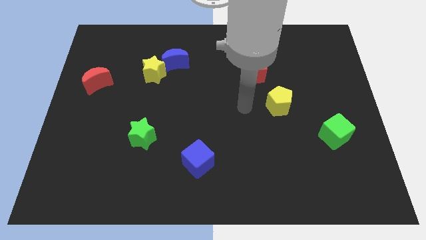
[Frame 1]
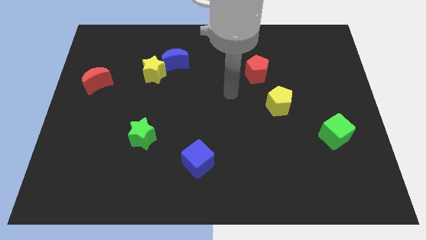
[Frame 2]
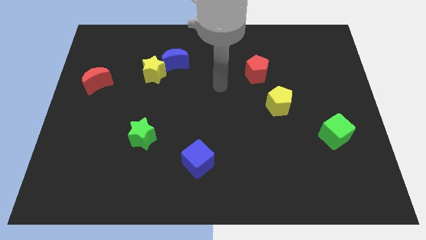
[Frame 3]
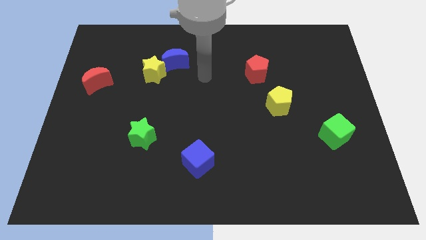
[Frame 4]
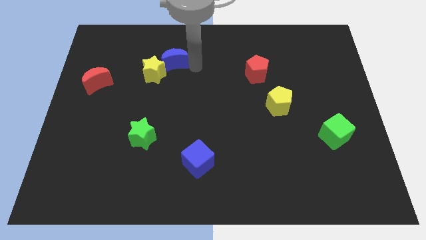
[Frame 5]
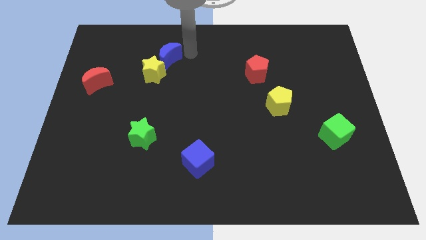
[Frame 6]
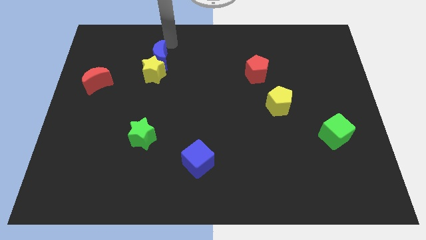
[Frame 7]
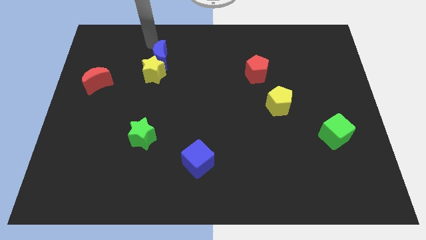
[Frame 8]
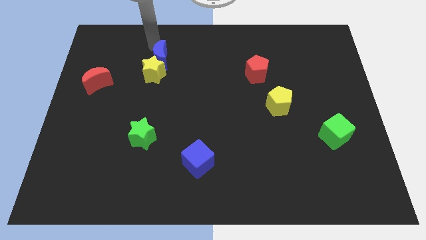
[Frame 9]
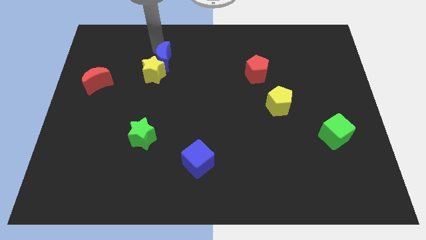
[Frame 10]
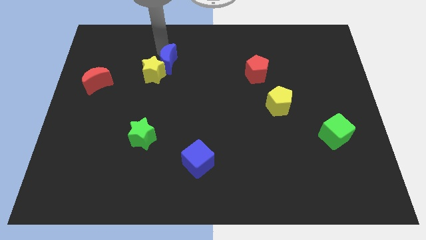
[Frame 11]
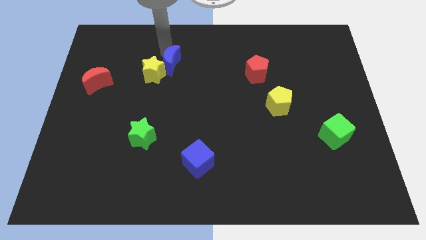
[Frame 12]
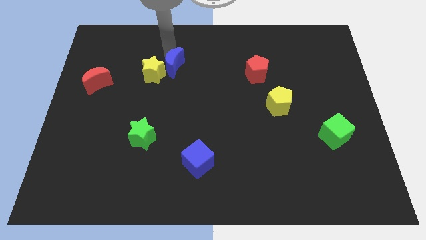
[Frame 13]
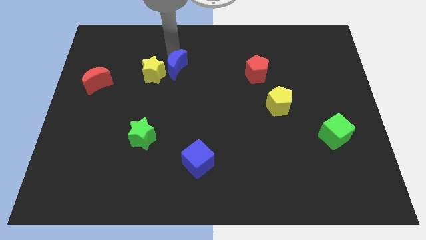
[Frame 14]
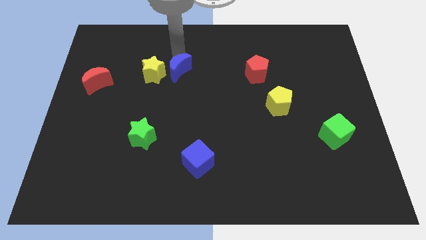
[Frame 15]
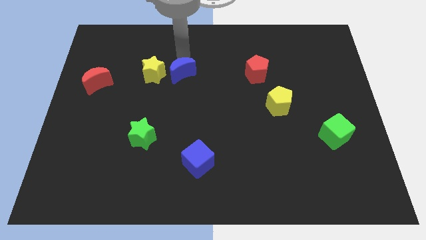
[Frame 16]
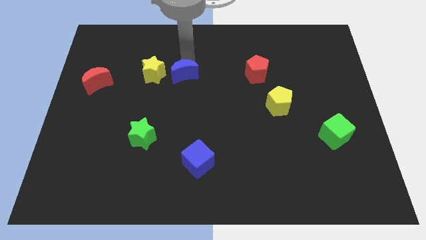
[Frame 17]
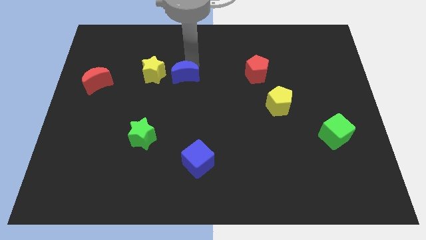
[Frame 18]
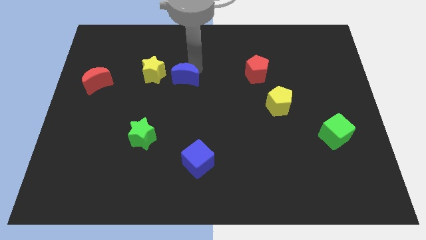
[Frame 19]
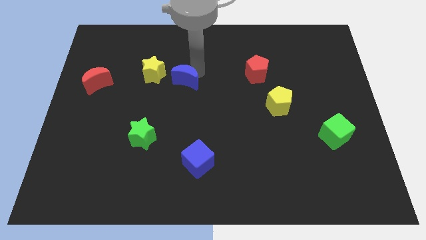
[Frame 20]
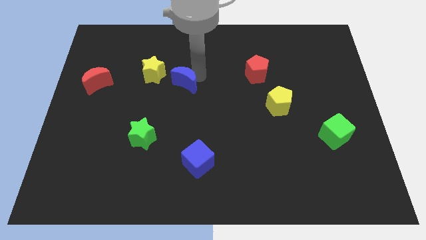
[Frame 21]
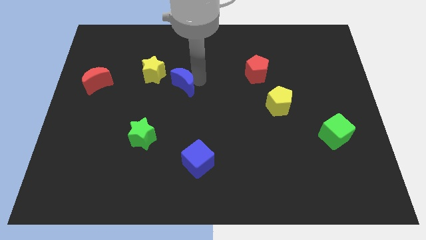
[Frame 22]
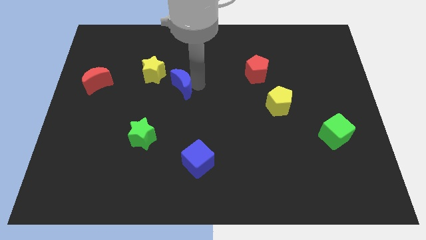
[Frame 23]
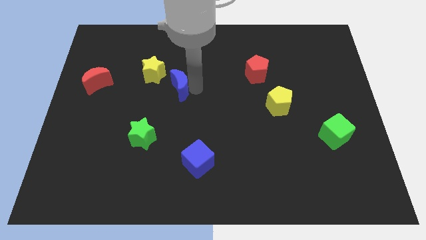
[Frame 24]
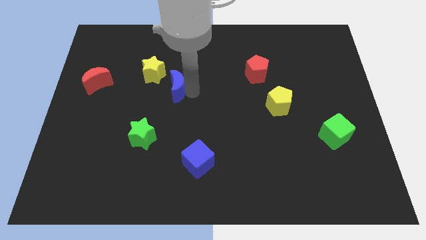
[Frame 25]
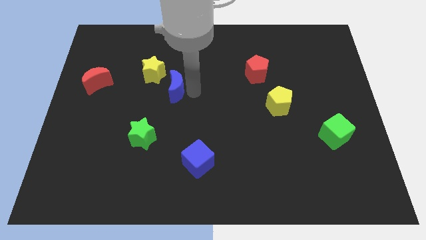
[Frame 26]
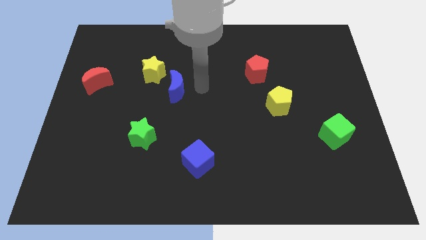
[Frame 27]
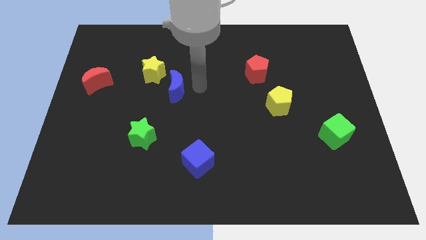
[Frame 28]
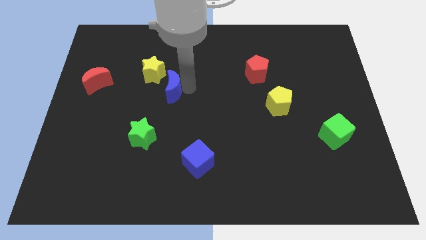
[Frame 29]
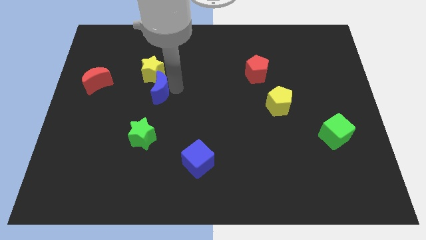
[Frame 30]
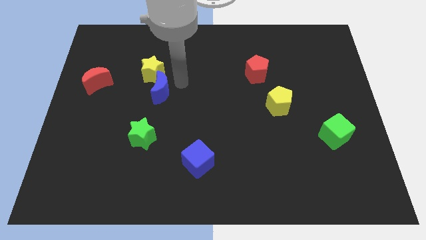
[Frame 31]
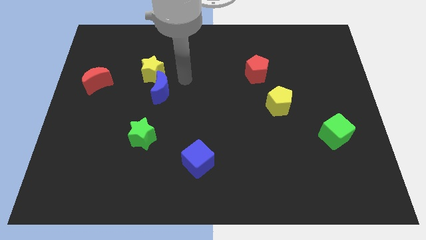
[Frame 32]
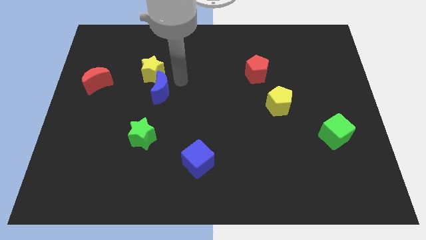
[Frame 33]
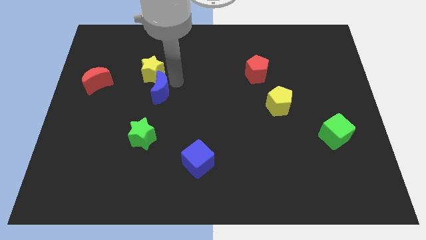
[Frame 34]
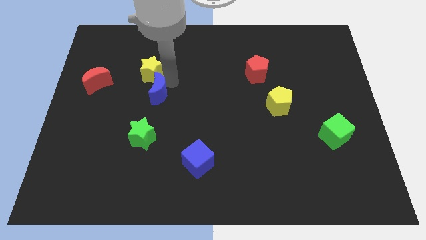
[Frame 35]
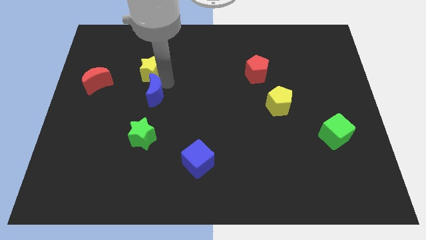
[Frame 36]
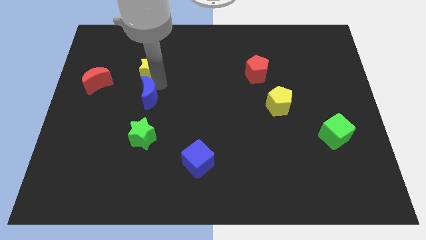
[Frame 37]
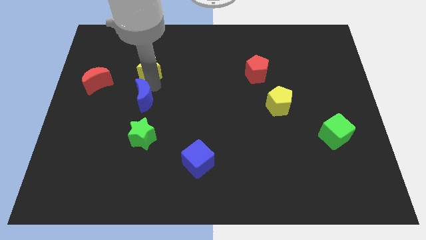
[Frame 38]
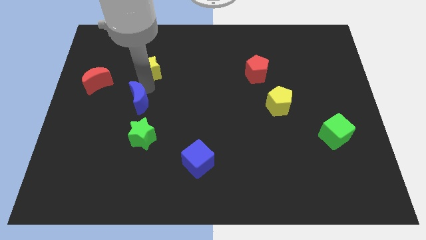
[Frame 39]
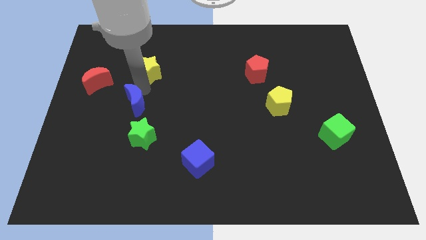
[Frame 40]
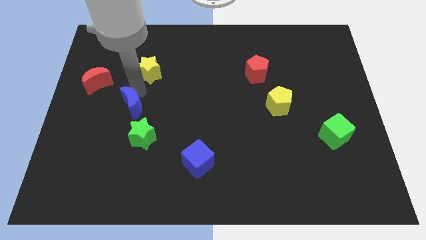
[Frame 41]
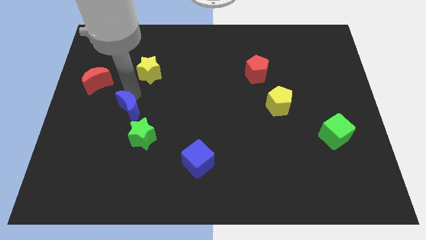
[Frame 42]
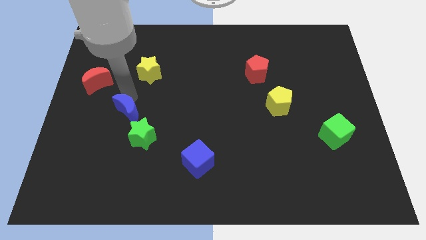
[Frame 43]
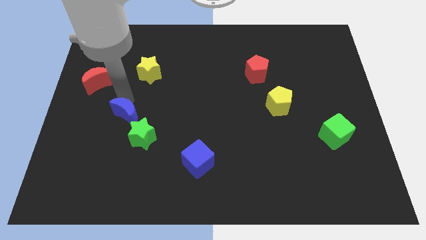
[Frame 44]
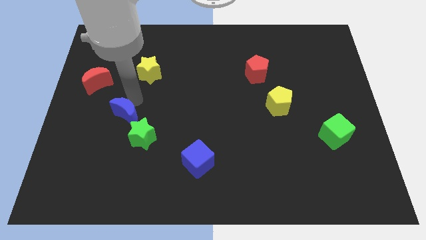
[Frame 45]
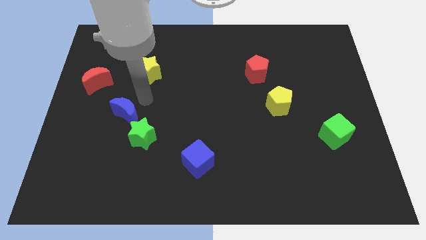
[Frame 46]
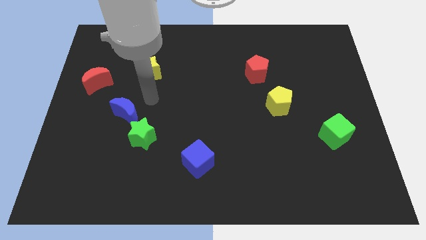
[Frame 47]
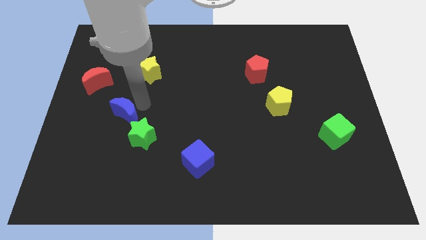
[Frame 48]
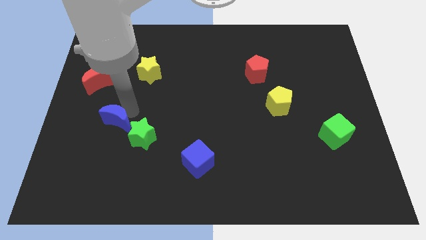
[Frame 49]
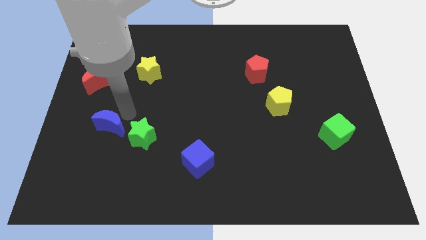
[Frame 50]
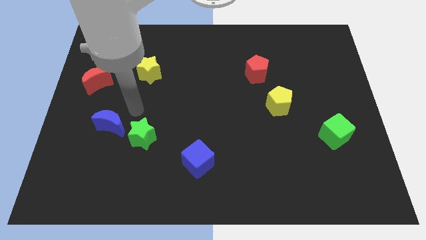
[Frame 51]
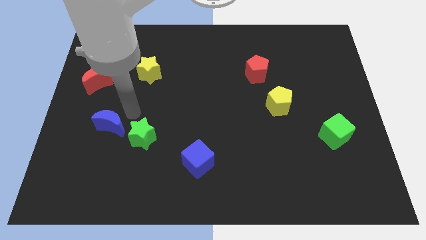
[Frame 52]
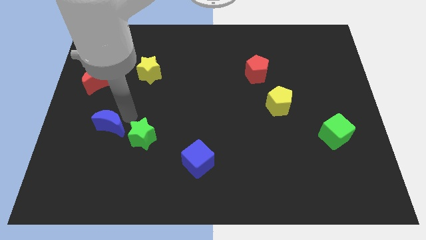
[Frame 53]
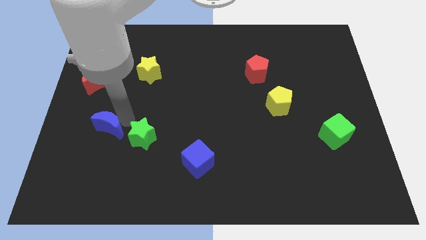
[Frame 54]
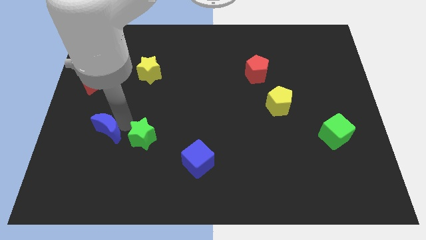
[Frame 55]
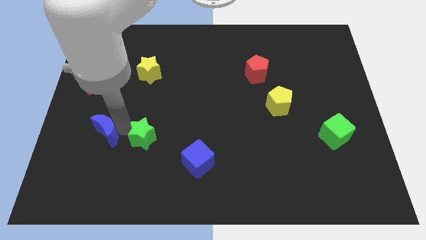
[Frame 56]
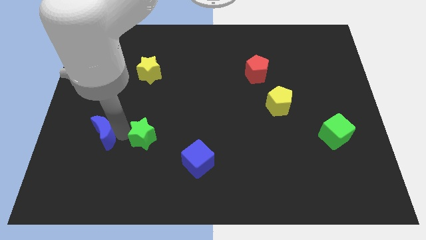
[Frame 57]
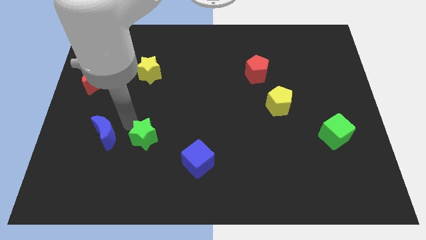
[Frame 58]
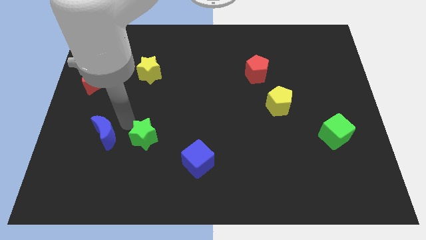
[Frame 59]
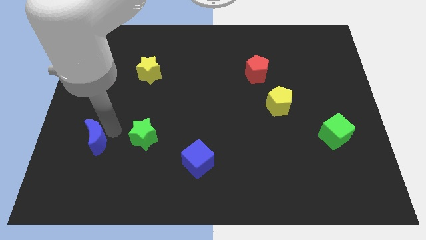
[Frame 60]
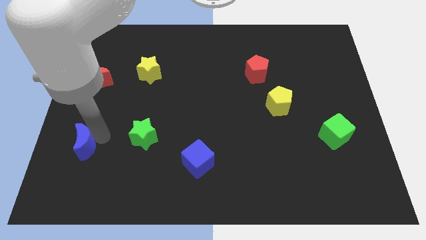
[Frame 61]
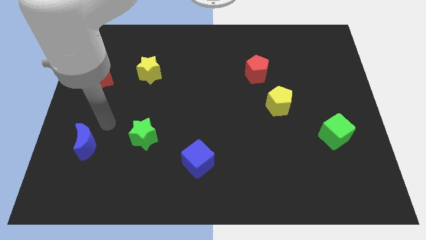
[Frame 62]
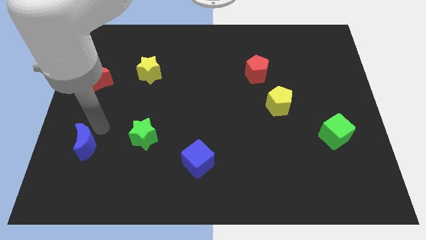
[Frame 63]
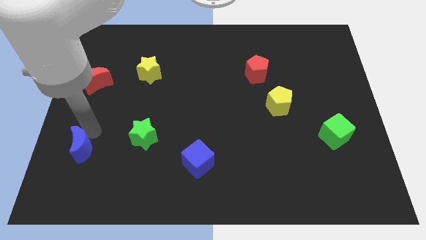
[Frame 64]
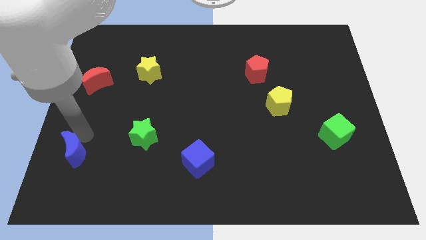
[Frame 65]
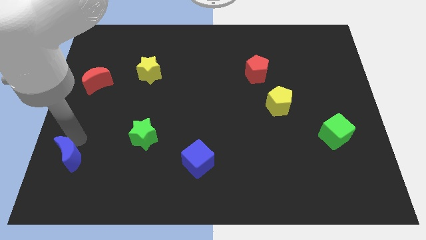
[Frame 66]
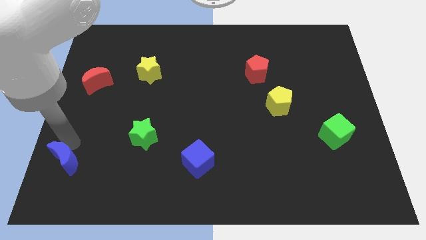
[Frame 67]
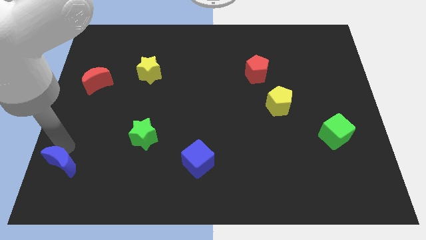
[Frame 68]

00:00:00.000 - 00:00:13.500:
push the blue moon to the lower left corner

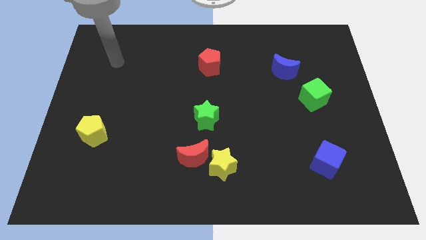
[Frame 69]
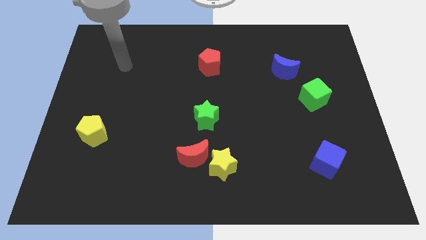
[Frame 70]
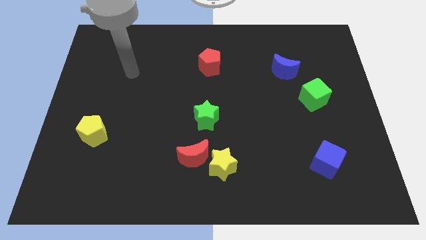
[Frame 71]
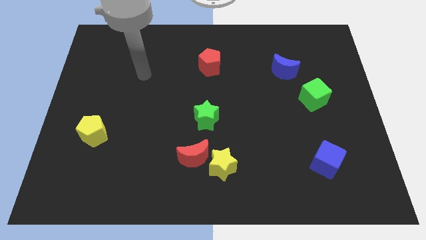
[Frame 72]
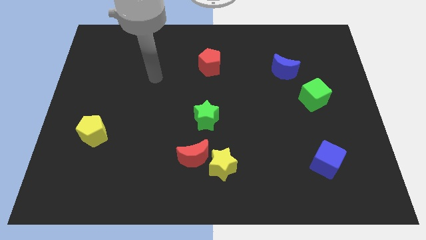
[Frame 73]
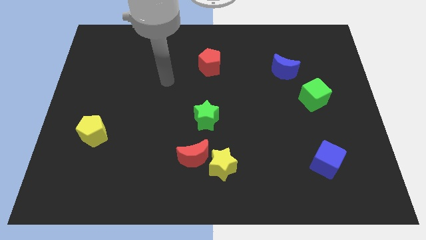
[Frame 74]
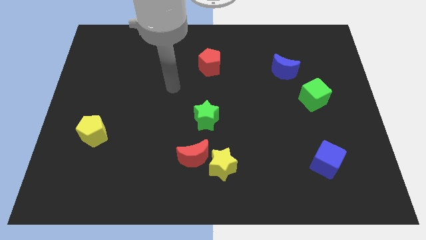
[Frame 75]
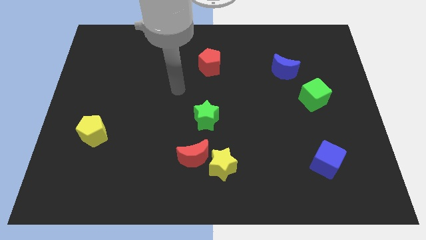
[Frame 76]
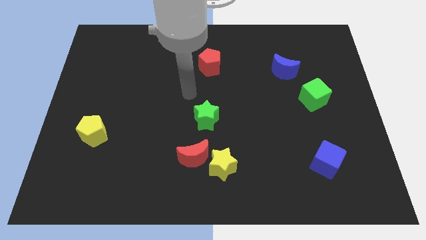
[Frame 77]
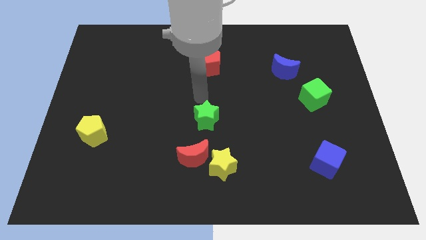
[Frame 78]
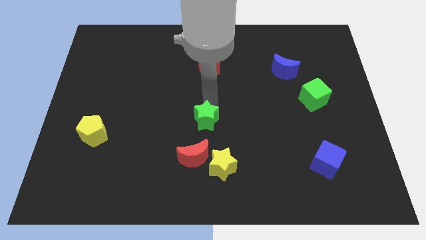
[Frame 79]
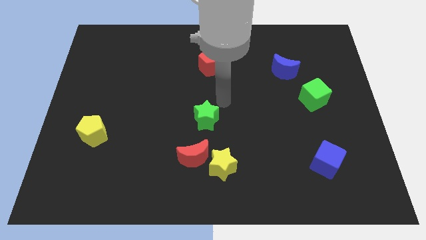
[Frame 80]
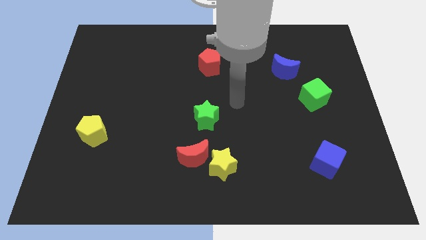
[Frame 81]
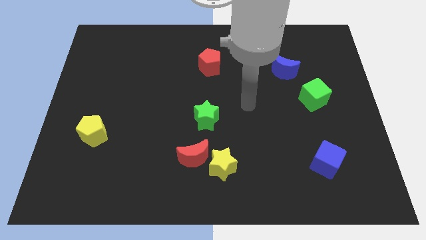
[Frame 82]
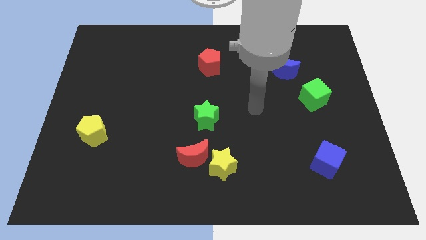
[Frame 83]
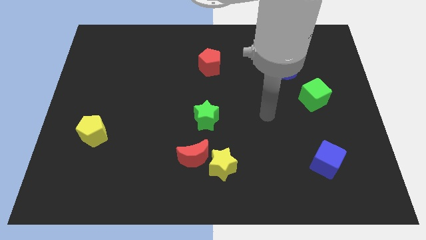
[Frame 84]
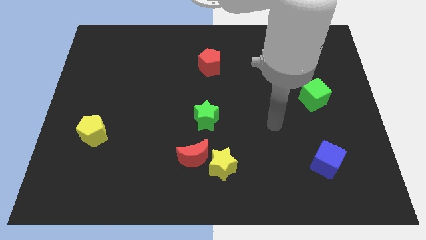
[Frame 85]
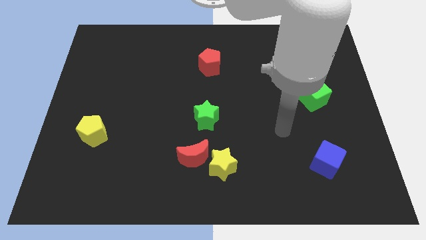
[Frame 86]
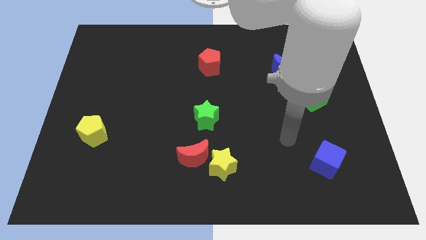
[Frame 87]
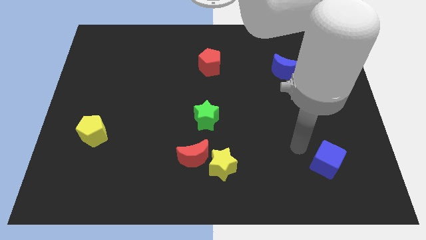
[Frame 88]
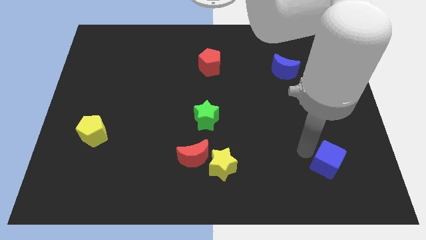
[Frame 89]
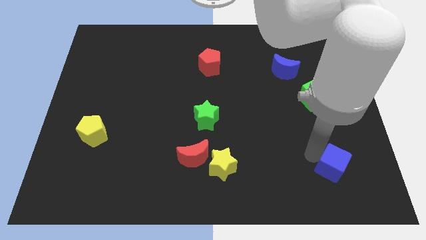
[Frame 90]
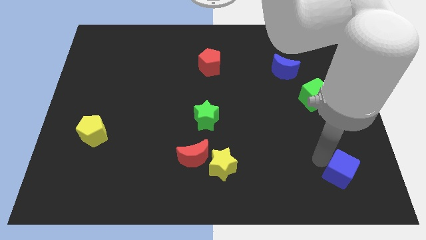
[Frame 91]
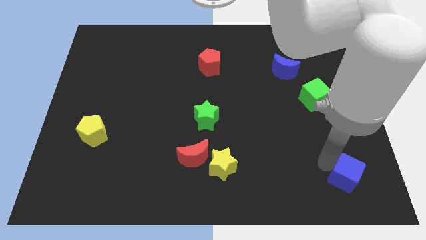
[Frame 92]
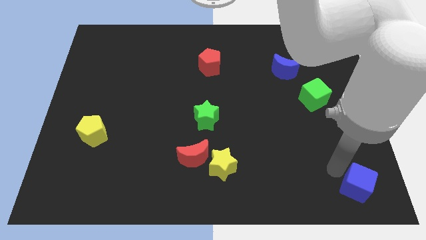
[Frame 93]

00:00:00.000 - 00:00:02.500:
slide the blue cube to the bottom right corner
